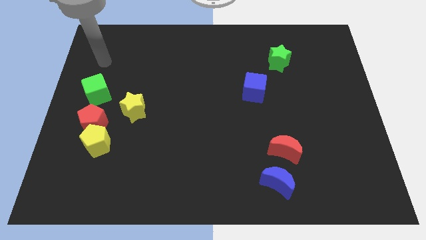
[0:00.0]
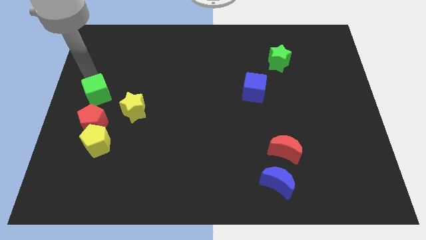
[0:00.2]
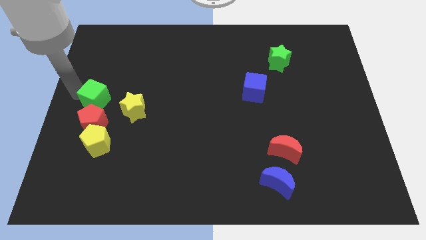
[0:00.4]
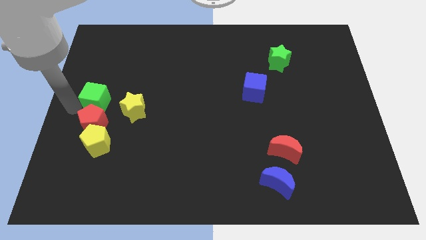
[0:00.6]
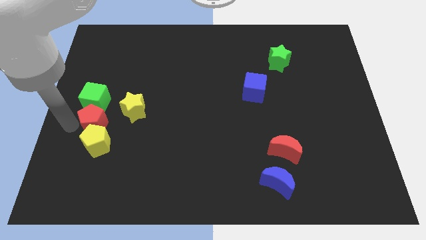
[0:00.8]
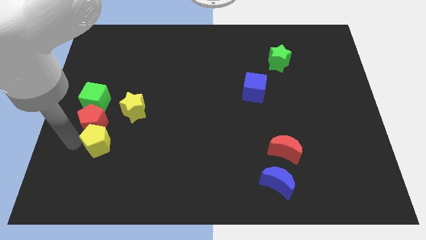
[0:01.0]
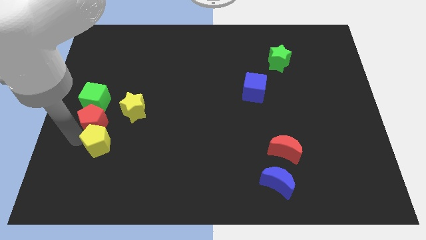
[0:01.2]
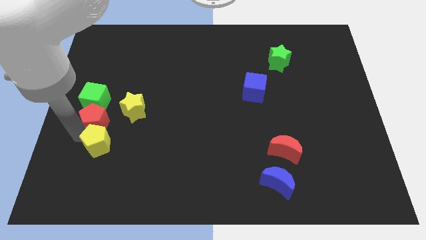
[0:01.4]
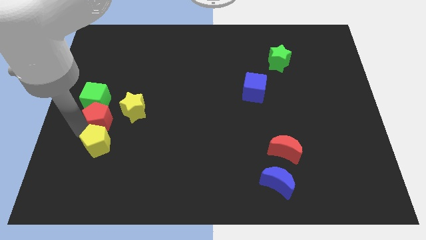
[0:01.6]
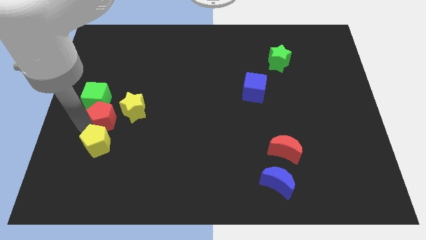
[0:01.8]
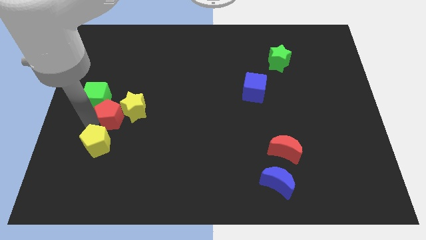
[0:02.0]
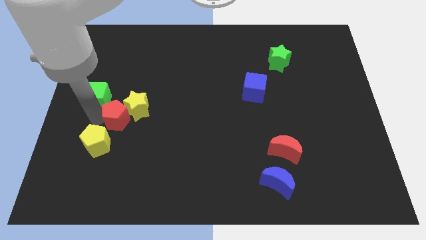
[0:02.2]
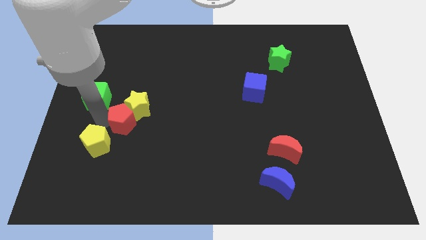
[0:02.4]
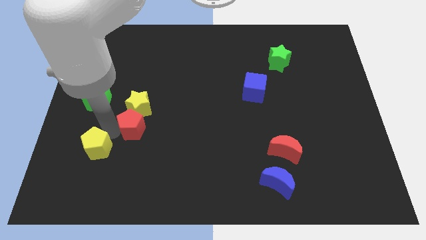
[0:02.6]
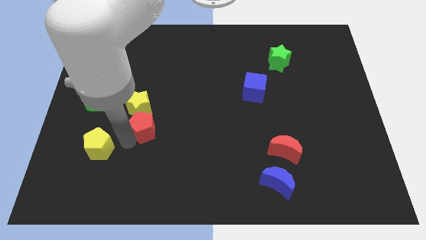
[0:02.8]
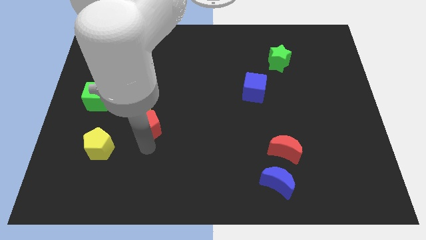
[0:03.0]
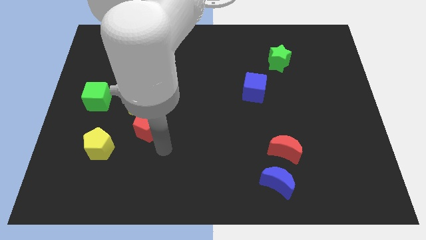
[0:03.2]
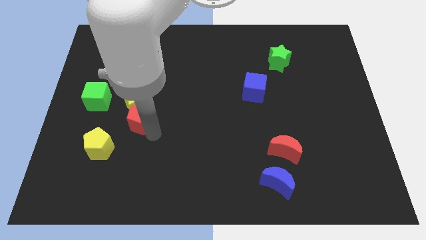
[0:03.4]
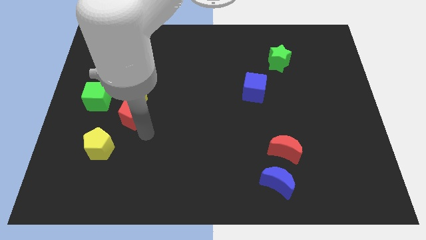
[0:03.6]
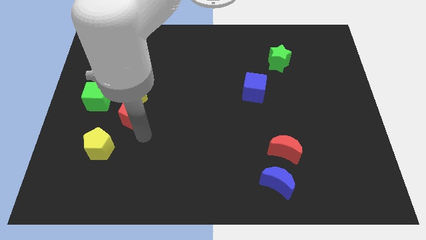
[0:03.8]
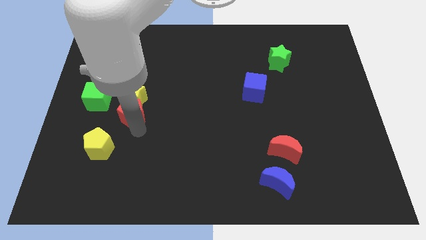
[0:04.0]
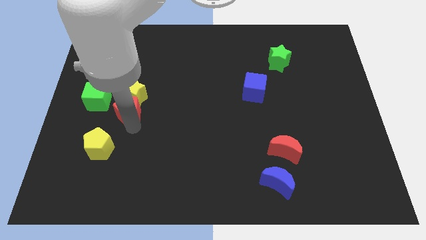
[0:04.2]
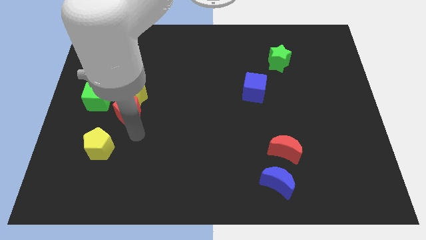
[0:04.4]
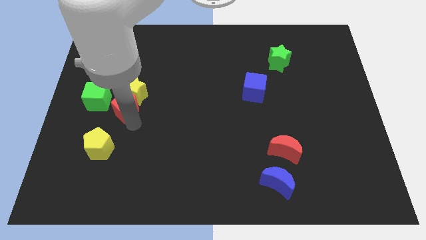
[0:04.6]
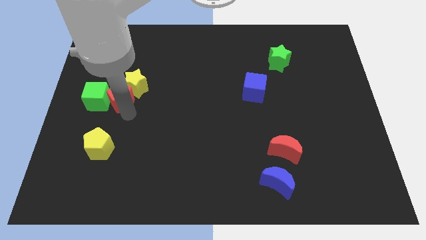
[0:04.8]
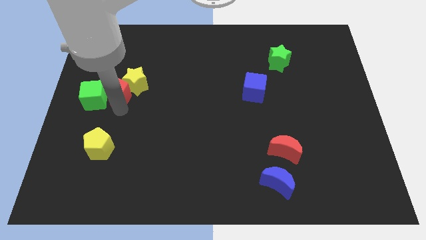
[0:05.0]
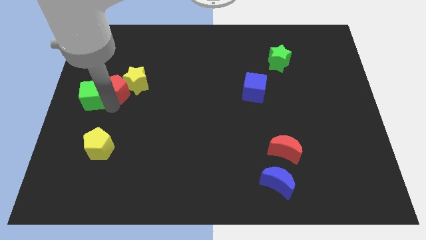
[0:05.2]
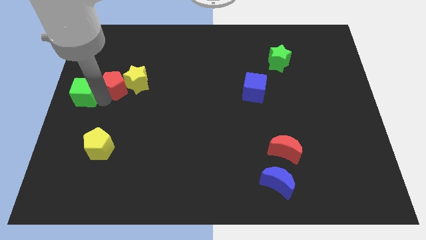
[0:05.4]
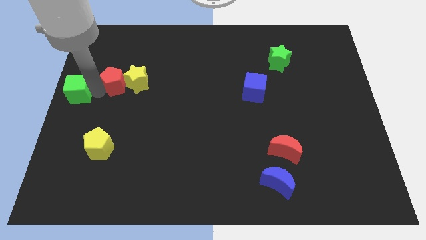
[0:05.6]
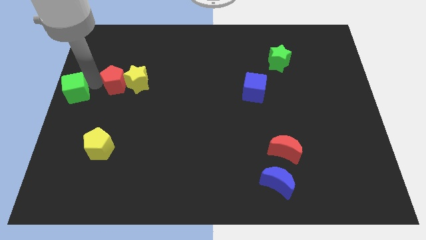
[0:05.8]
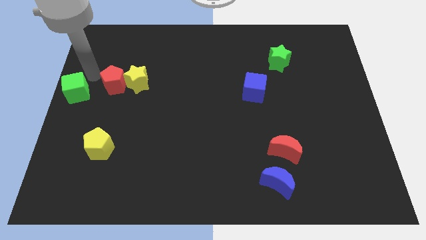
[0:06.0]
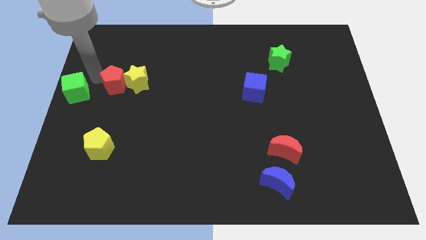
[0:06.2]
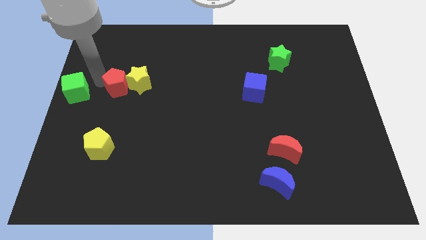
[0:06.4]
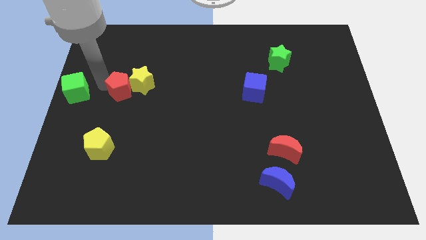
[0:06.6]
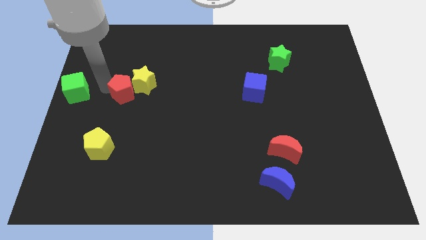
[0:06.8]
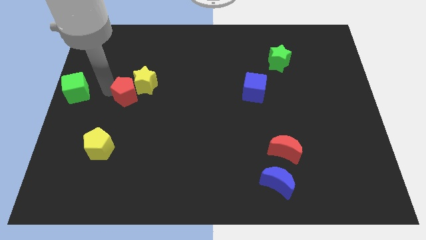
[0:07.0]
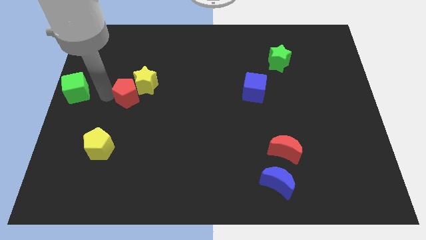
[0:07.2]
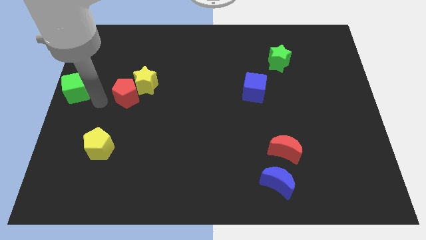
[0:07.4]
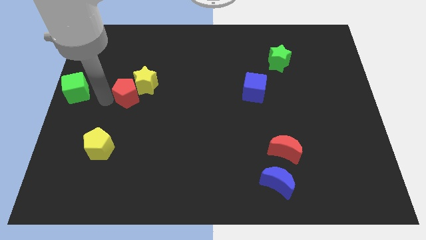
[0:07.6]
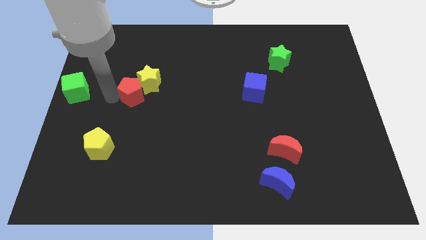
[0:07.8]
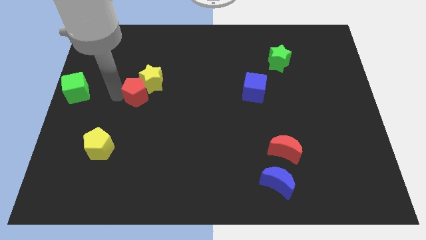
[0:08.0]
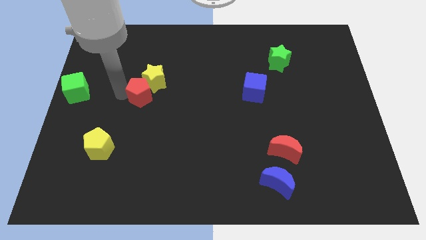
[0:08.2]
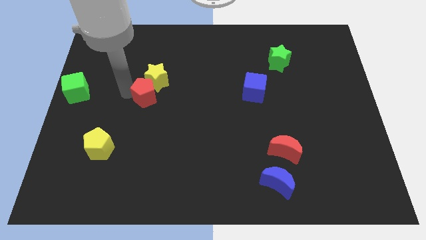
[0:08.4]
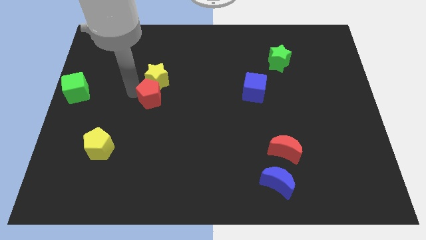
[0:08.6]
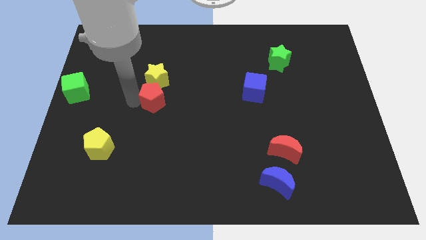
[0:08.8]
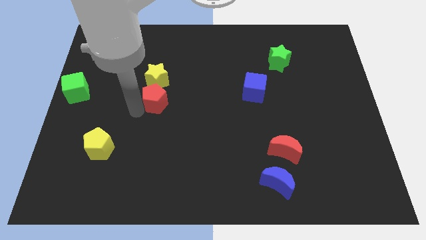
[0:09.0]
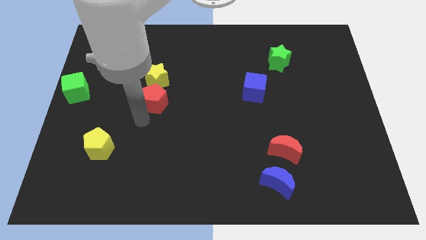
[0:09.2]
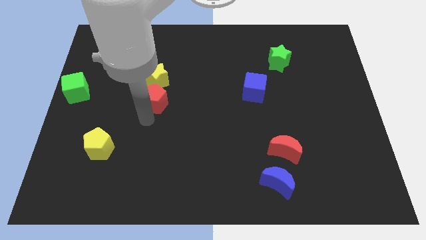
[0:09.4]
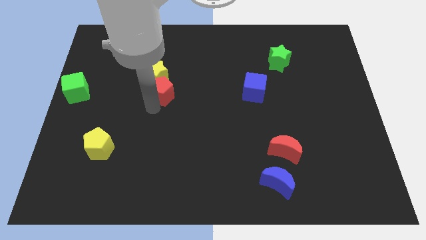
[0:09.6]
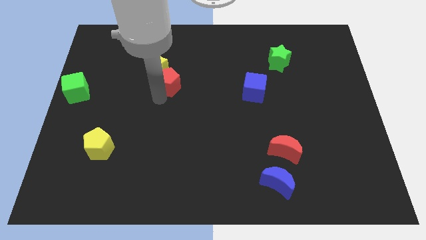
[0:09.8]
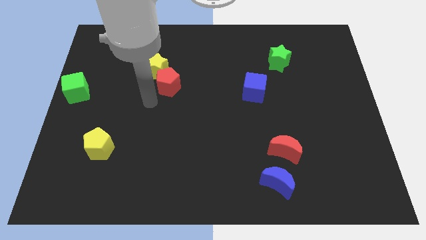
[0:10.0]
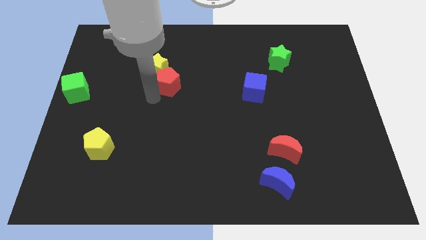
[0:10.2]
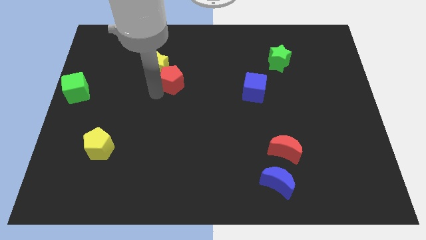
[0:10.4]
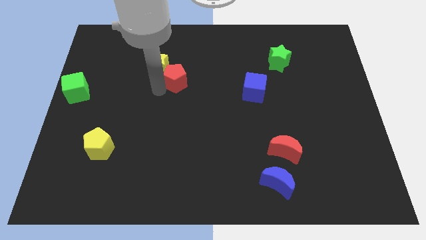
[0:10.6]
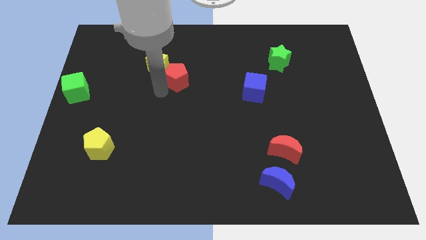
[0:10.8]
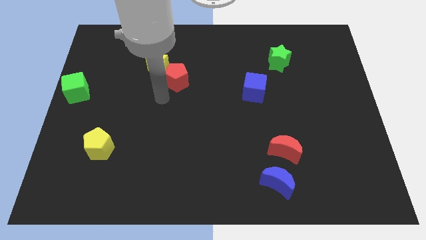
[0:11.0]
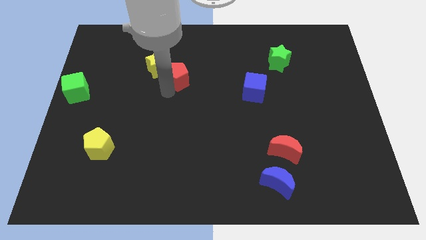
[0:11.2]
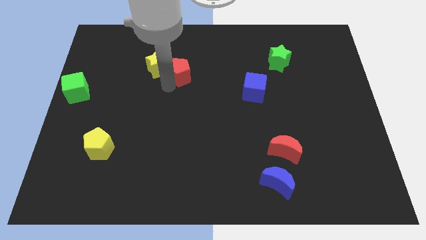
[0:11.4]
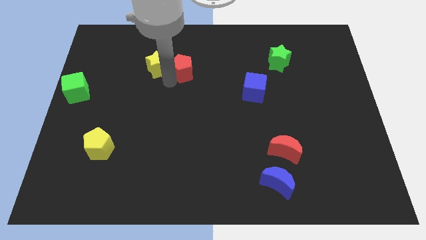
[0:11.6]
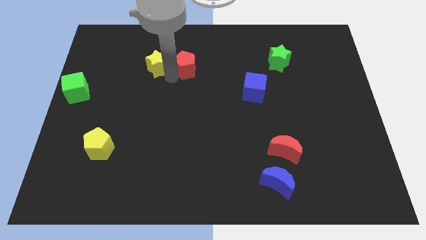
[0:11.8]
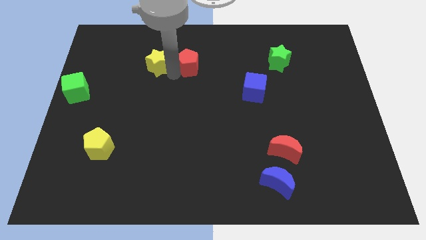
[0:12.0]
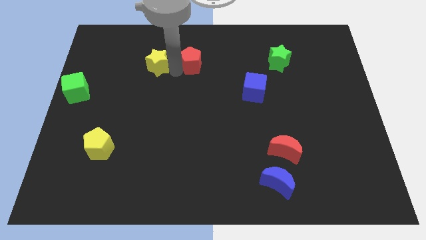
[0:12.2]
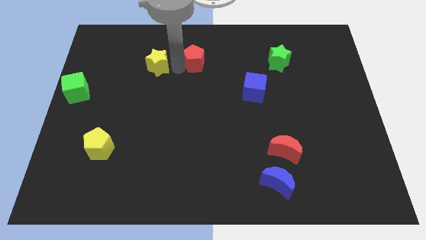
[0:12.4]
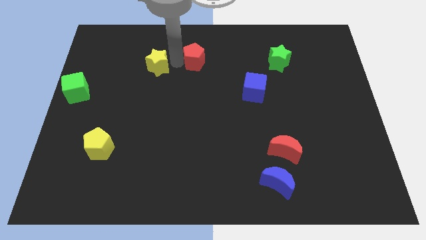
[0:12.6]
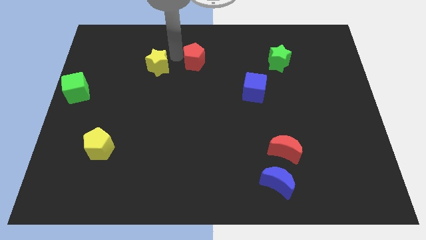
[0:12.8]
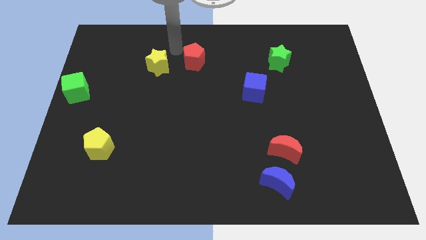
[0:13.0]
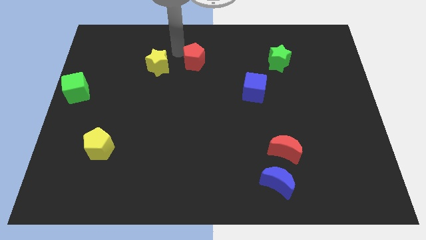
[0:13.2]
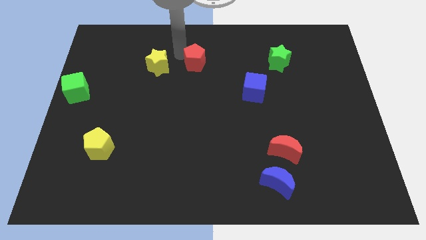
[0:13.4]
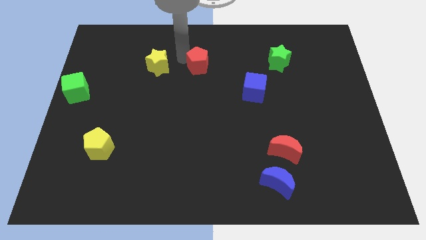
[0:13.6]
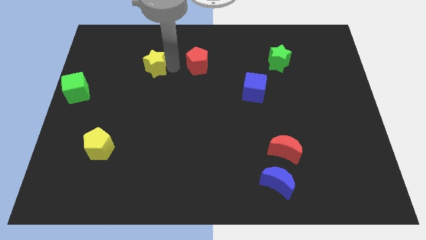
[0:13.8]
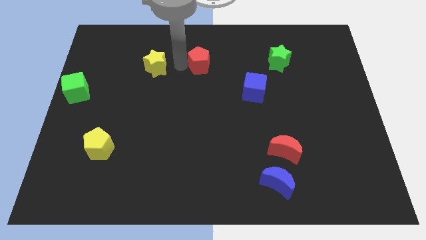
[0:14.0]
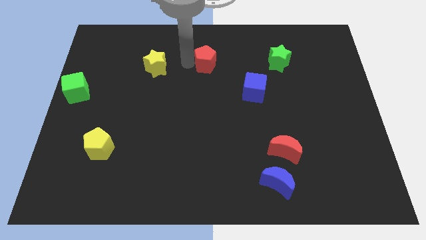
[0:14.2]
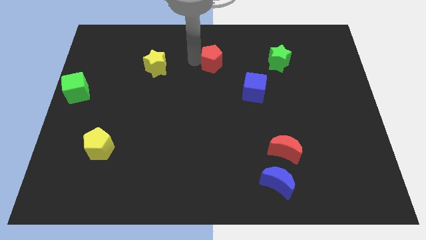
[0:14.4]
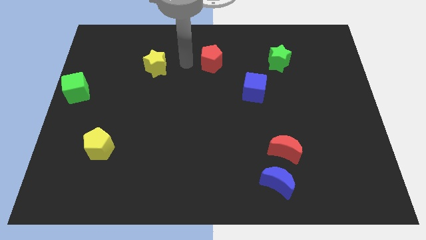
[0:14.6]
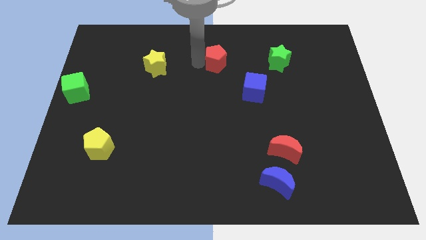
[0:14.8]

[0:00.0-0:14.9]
put the red pentagon to the left side of the green star
